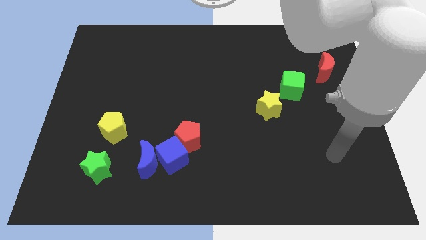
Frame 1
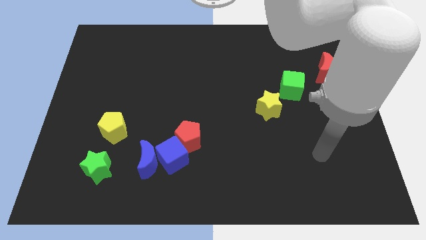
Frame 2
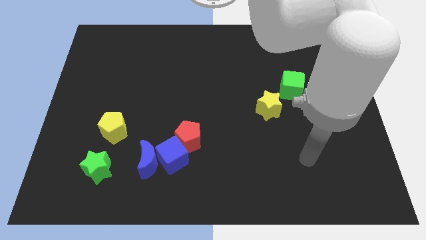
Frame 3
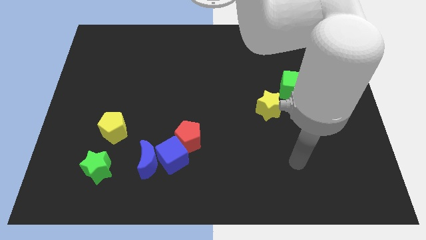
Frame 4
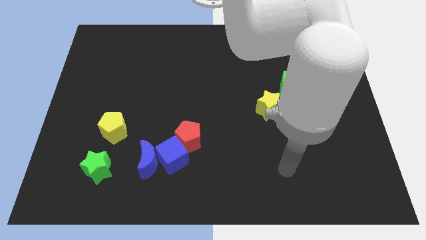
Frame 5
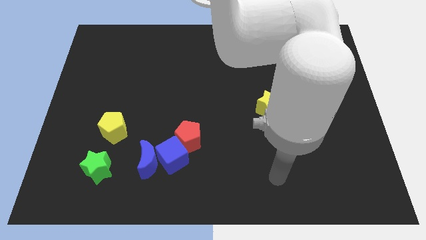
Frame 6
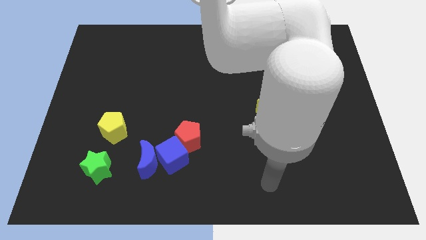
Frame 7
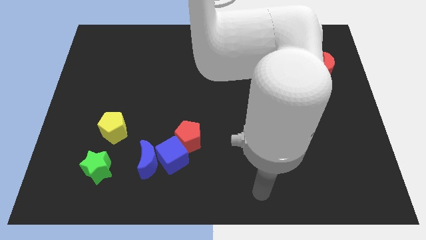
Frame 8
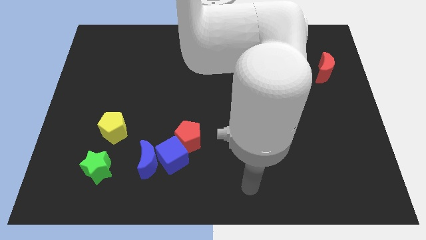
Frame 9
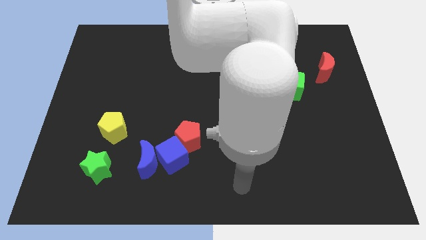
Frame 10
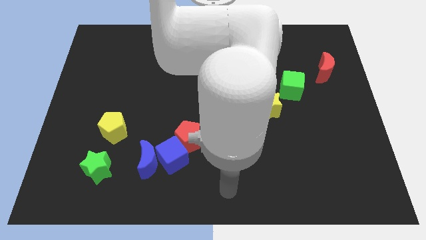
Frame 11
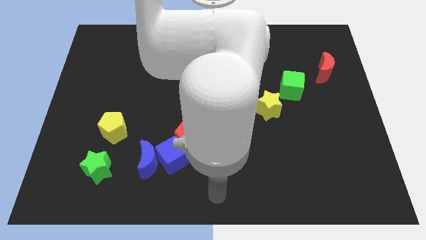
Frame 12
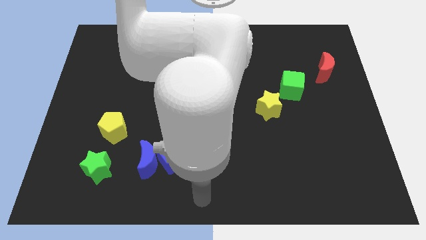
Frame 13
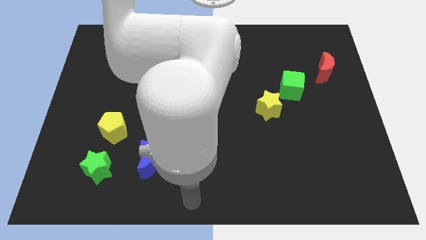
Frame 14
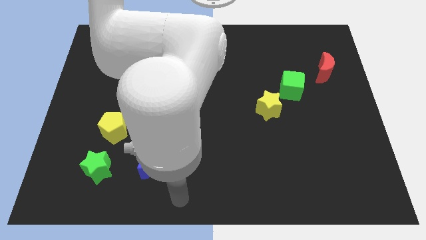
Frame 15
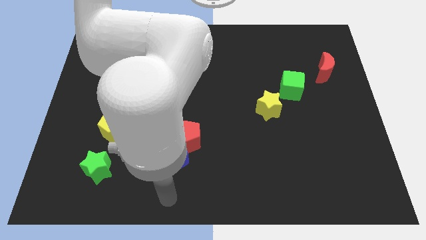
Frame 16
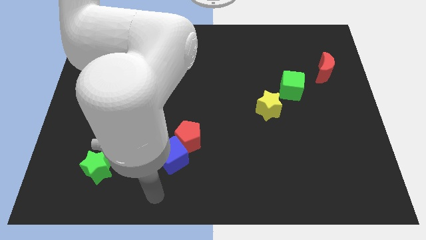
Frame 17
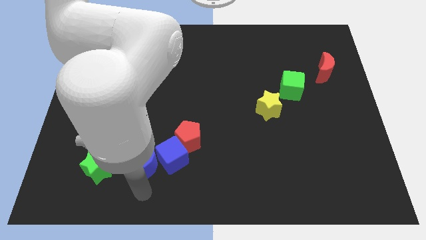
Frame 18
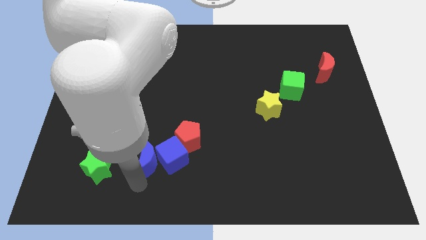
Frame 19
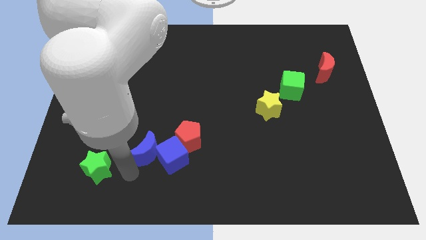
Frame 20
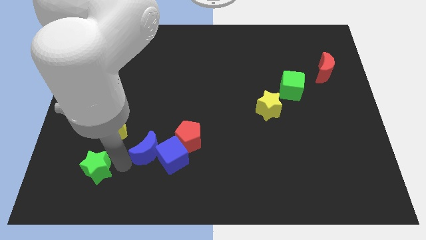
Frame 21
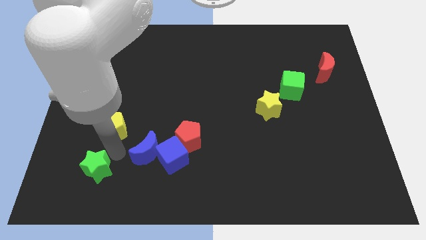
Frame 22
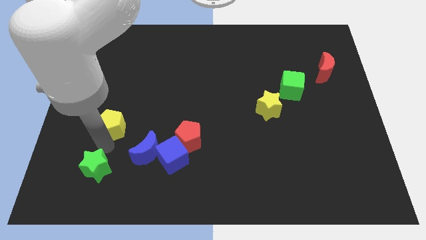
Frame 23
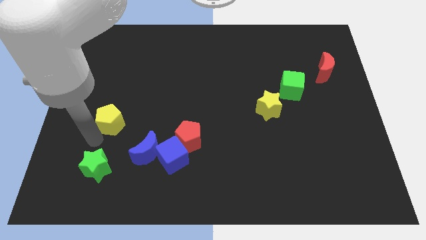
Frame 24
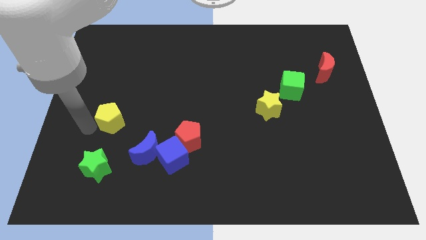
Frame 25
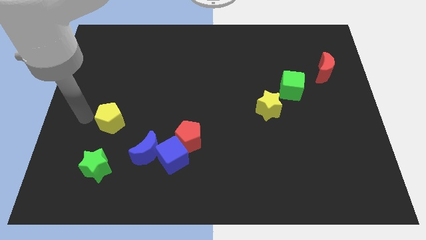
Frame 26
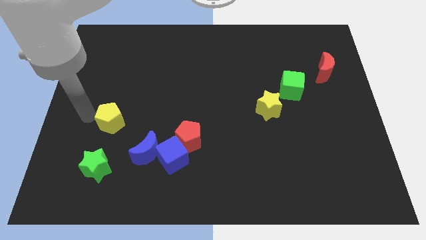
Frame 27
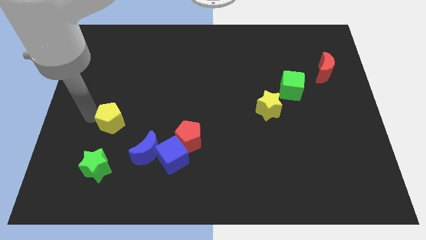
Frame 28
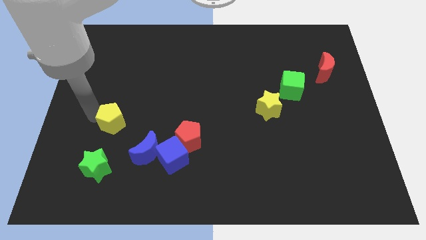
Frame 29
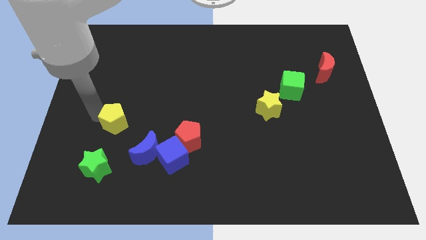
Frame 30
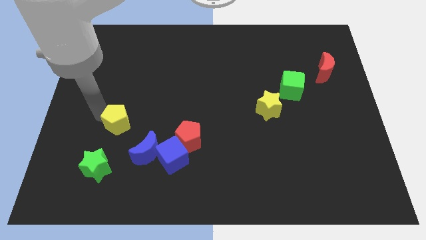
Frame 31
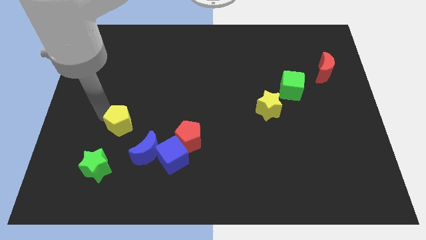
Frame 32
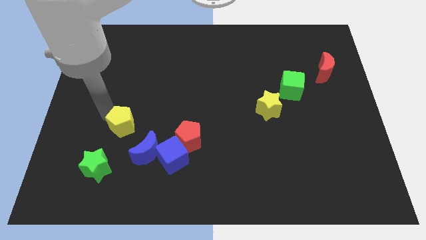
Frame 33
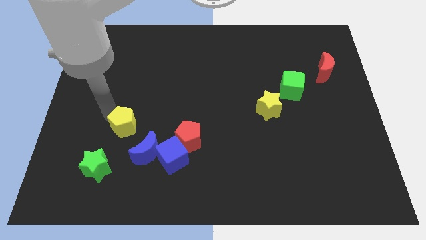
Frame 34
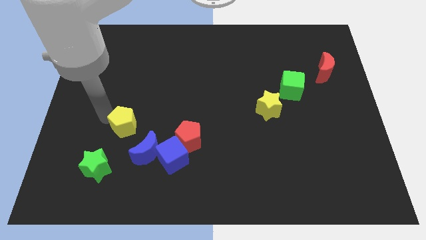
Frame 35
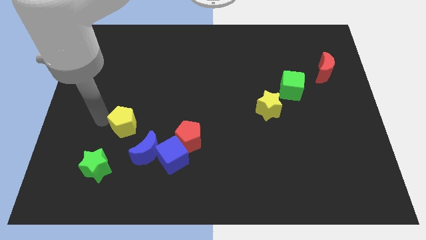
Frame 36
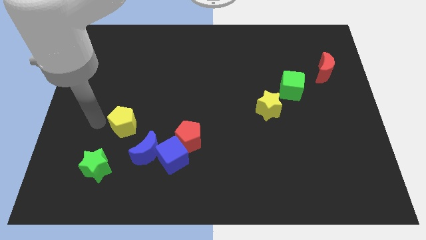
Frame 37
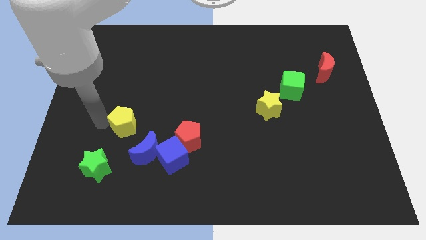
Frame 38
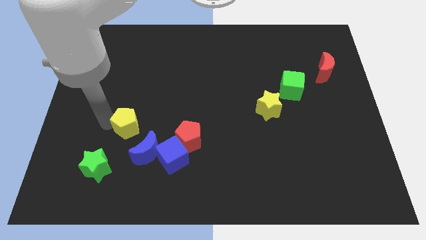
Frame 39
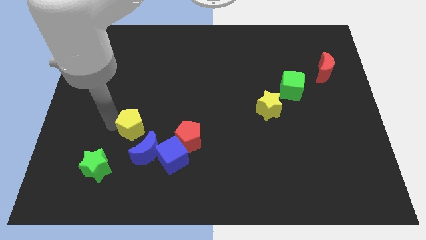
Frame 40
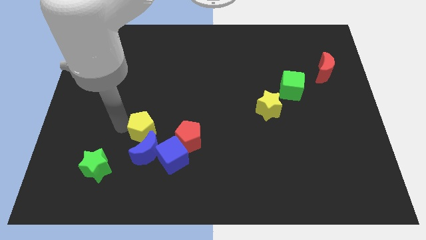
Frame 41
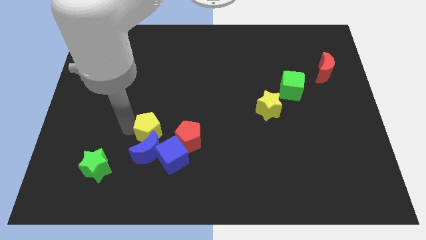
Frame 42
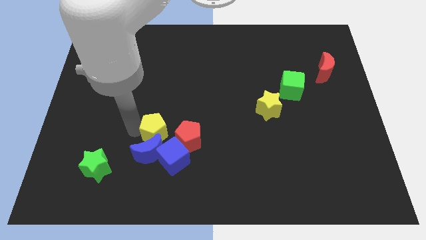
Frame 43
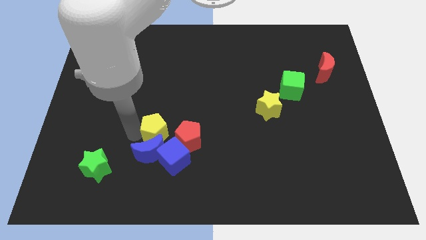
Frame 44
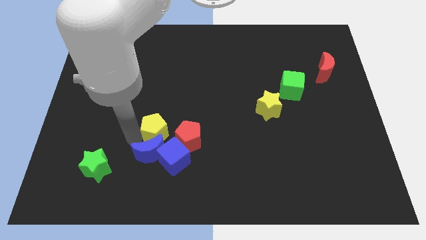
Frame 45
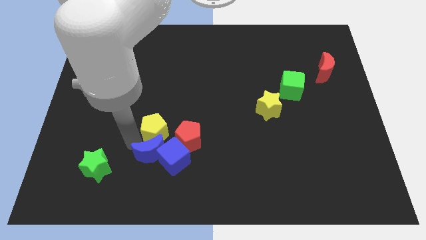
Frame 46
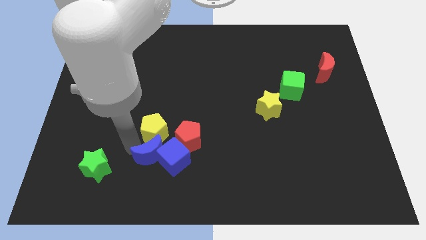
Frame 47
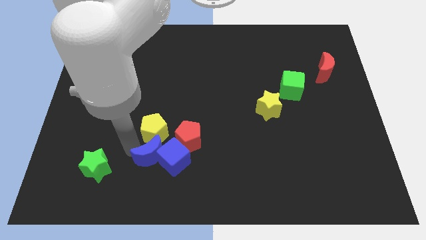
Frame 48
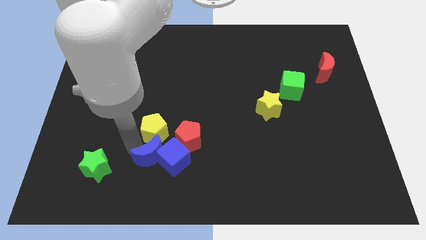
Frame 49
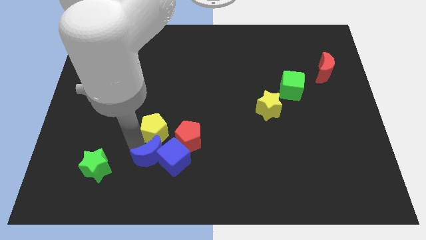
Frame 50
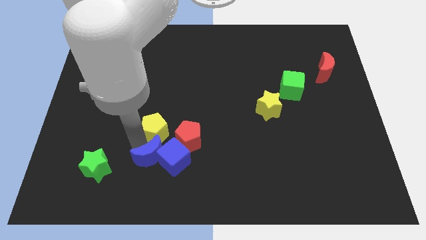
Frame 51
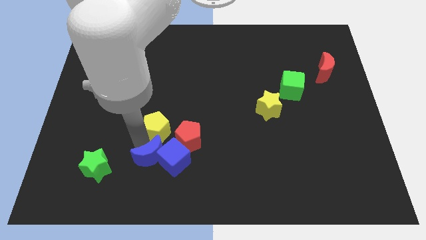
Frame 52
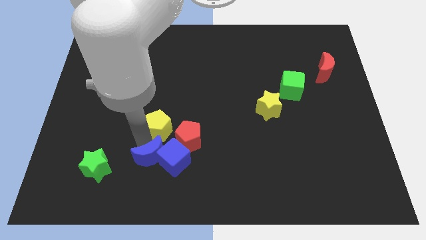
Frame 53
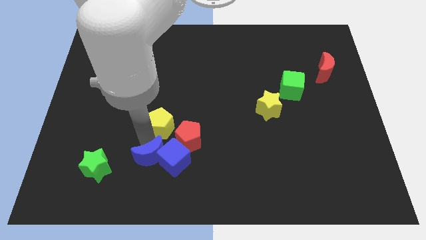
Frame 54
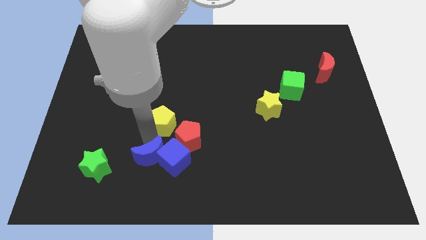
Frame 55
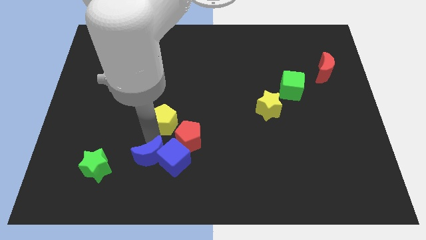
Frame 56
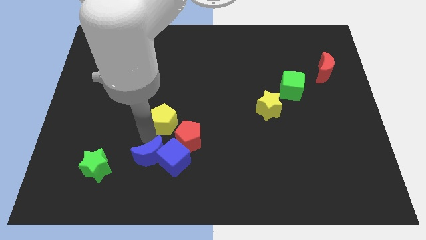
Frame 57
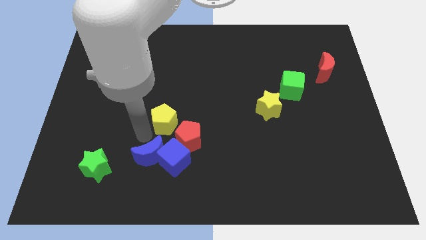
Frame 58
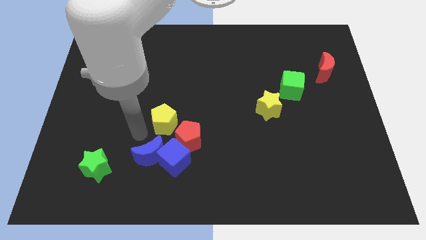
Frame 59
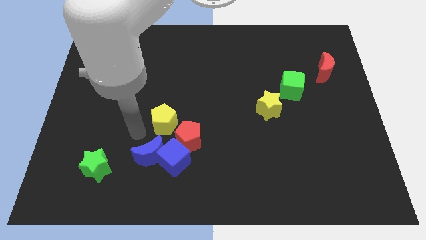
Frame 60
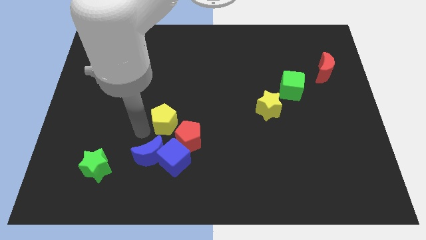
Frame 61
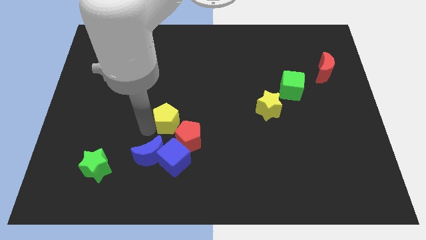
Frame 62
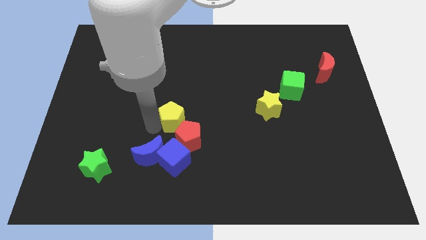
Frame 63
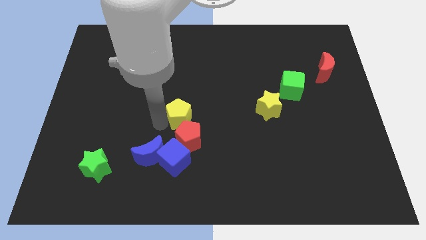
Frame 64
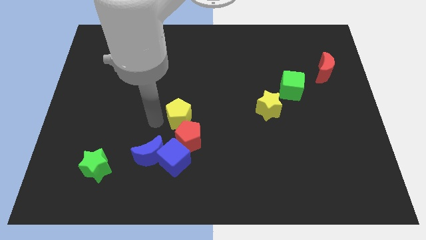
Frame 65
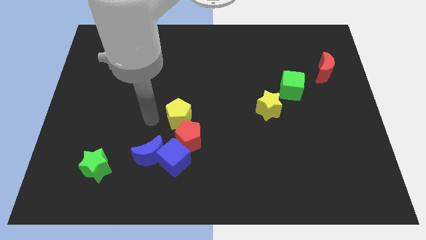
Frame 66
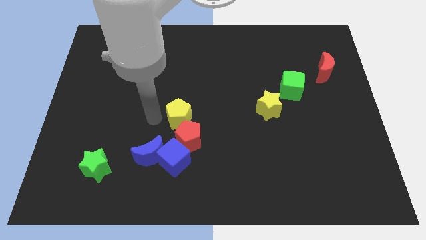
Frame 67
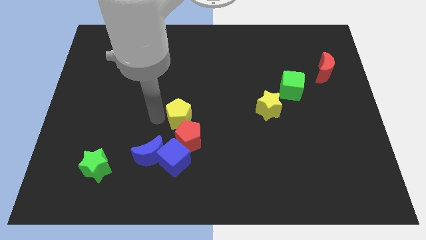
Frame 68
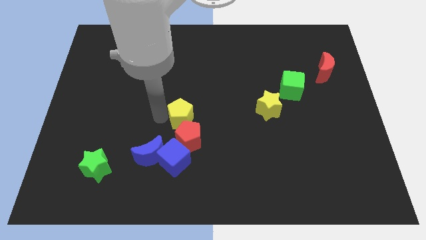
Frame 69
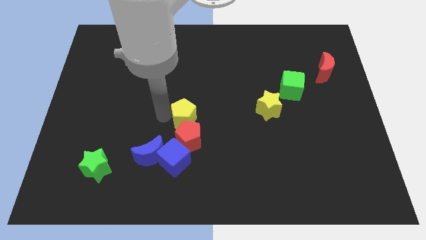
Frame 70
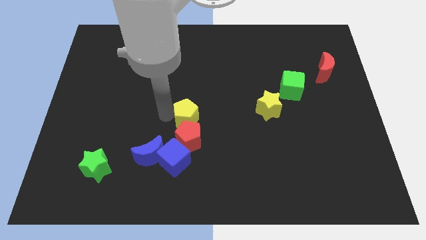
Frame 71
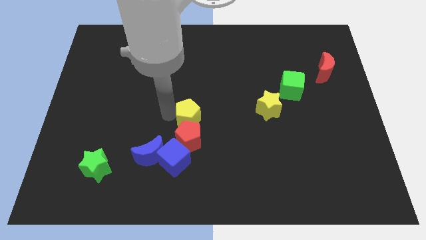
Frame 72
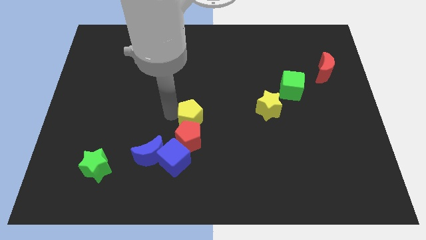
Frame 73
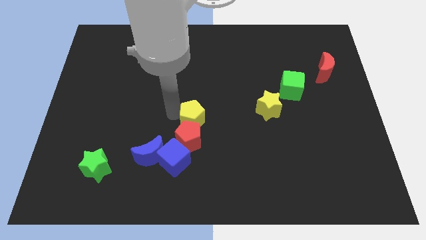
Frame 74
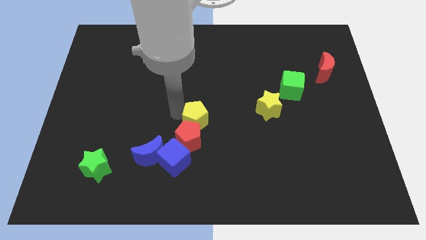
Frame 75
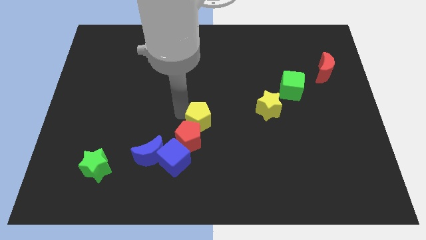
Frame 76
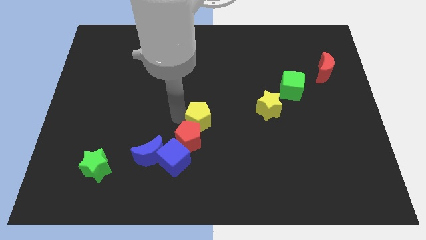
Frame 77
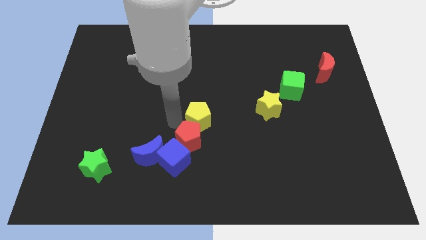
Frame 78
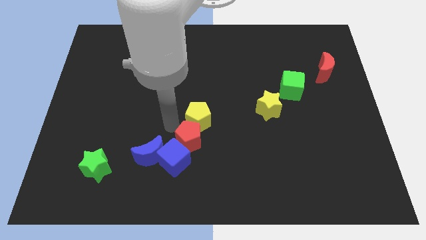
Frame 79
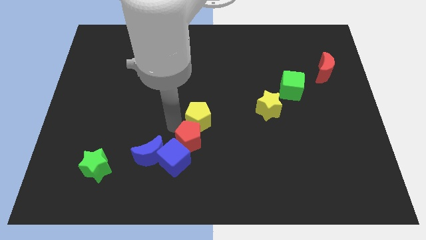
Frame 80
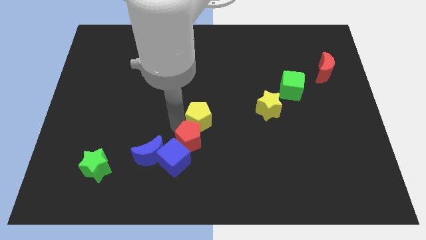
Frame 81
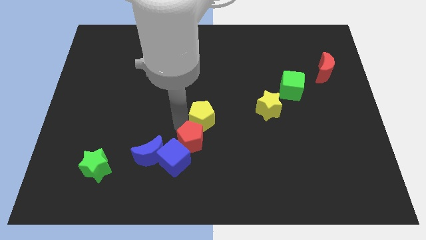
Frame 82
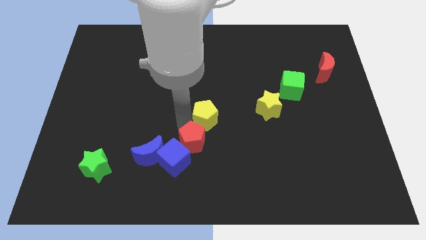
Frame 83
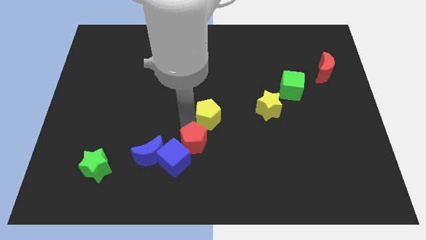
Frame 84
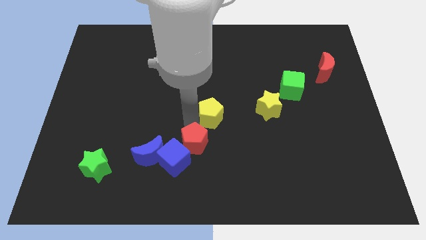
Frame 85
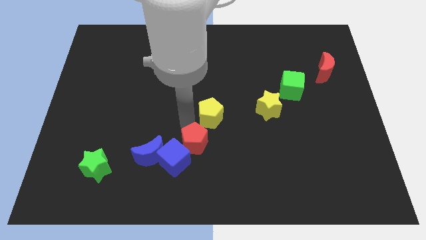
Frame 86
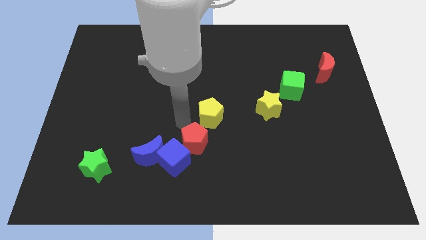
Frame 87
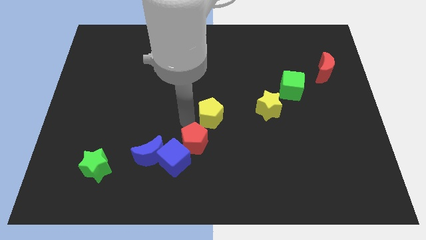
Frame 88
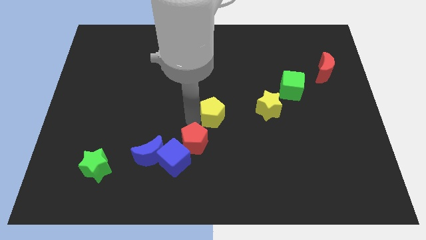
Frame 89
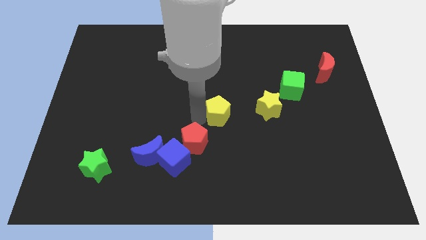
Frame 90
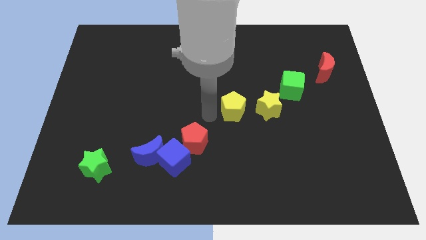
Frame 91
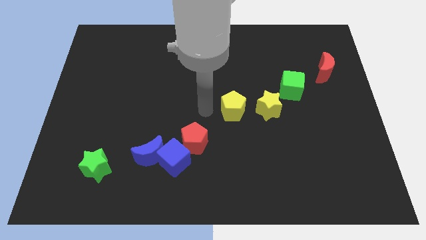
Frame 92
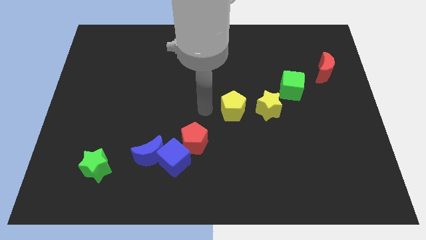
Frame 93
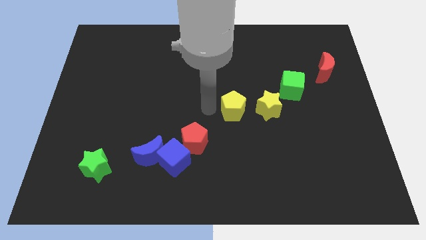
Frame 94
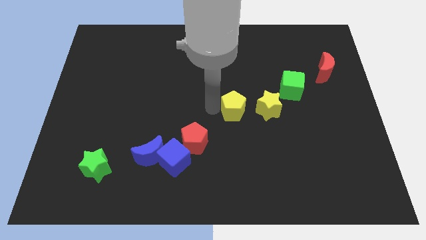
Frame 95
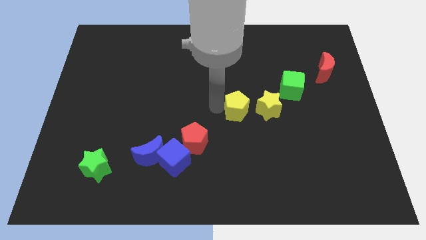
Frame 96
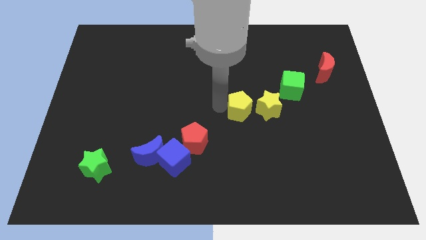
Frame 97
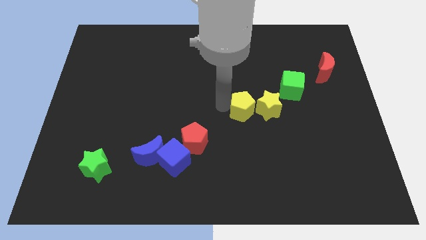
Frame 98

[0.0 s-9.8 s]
slide the yellow pentagon towards the yellow star
